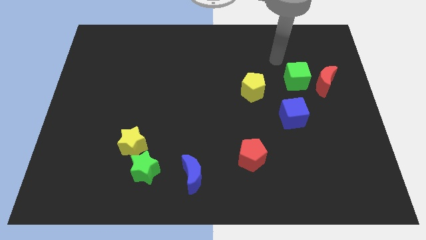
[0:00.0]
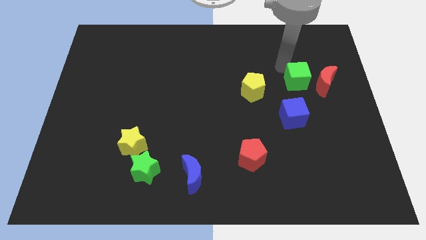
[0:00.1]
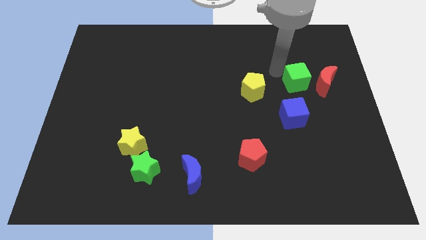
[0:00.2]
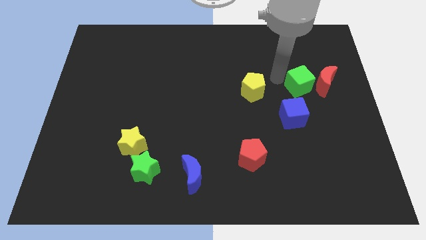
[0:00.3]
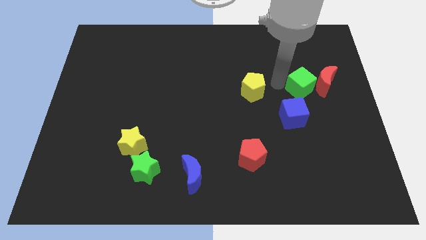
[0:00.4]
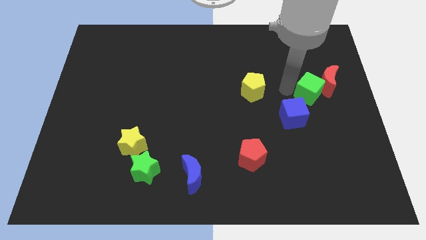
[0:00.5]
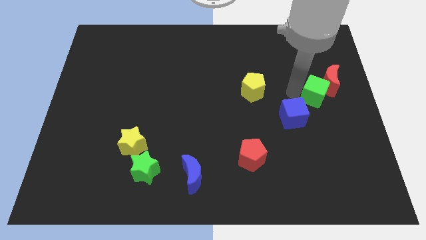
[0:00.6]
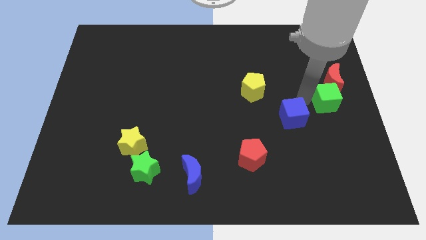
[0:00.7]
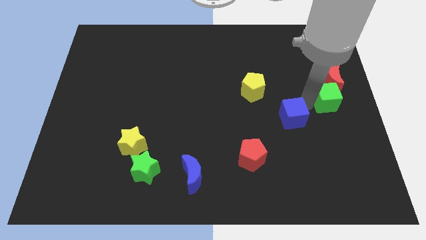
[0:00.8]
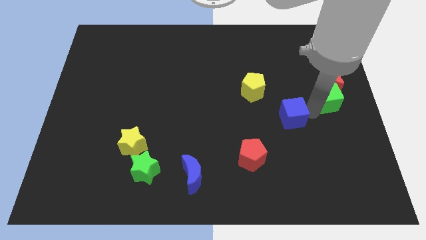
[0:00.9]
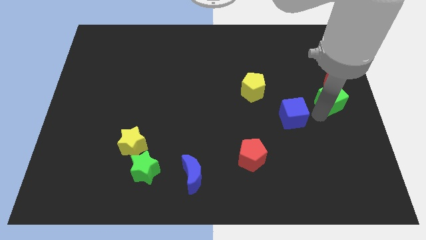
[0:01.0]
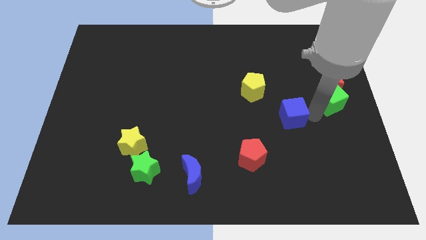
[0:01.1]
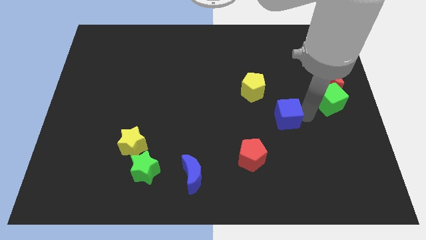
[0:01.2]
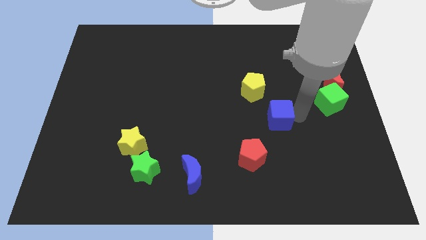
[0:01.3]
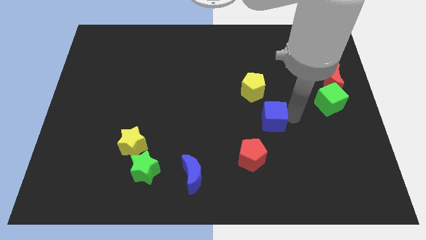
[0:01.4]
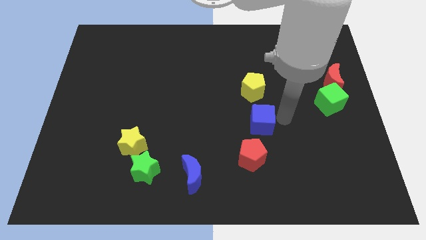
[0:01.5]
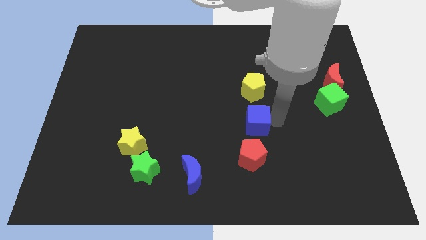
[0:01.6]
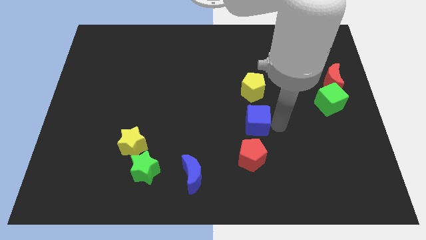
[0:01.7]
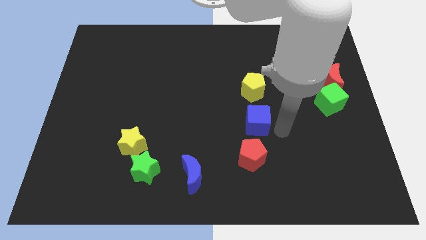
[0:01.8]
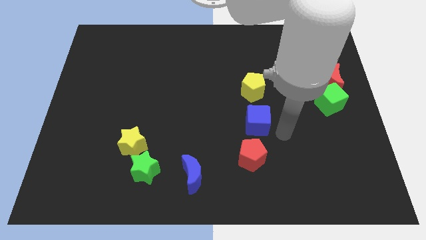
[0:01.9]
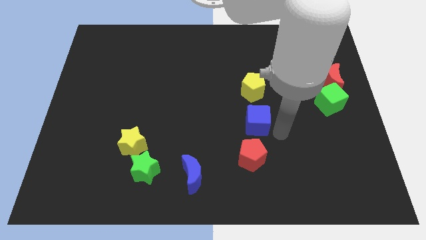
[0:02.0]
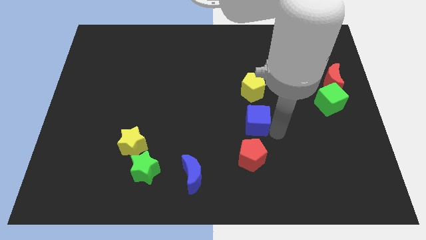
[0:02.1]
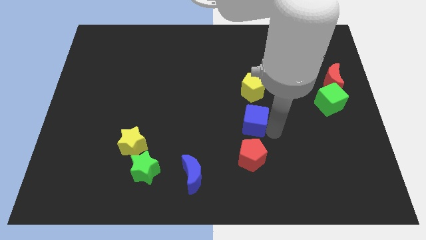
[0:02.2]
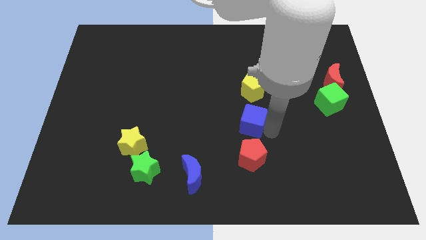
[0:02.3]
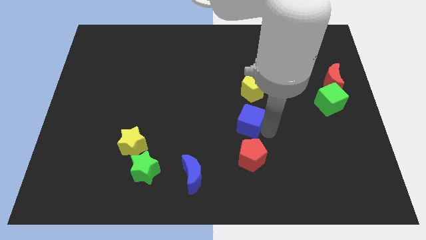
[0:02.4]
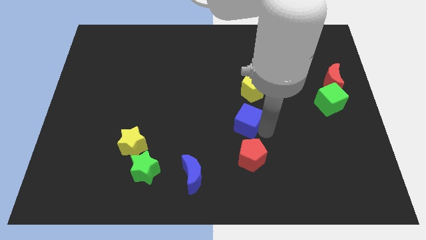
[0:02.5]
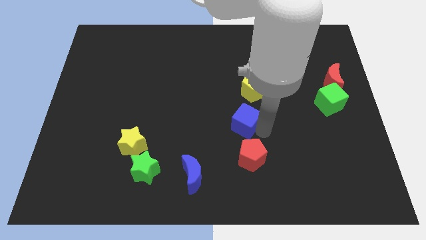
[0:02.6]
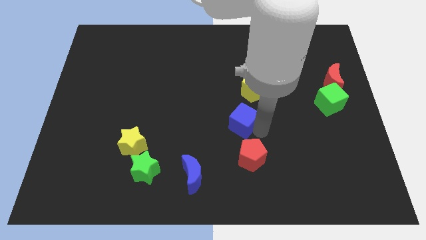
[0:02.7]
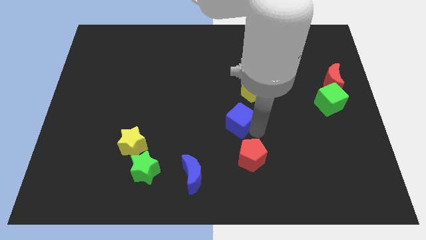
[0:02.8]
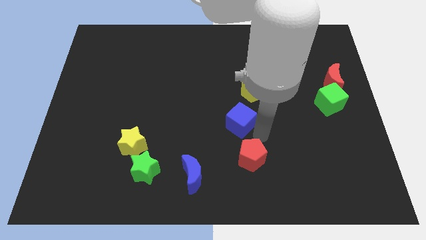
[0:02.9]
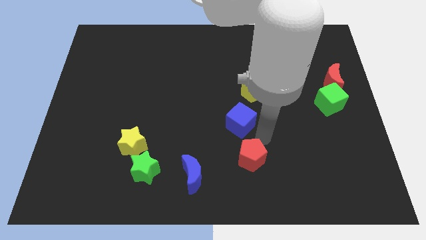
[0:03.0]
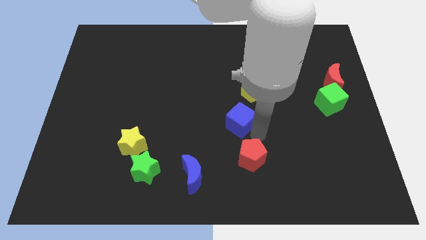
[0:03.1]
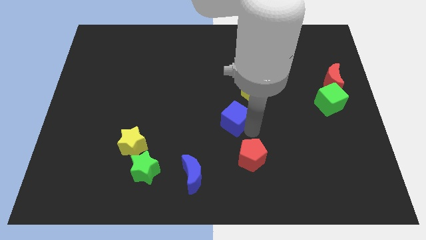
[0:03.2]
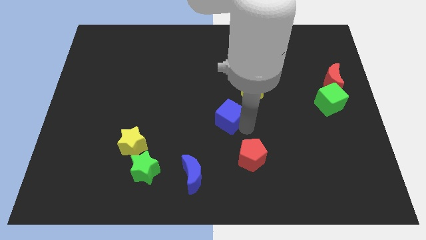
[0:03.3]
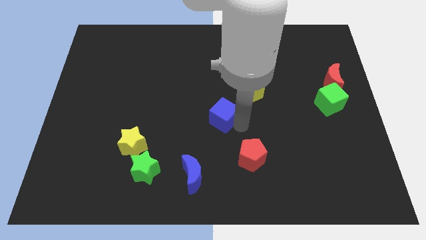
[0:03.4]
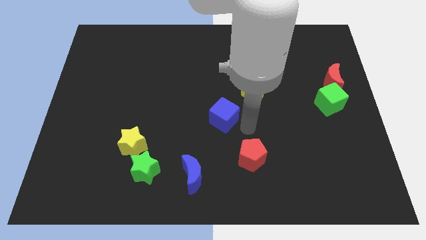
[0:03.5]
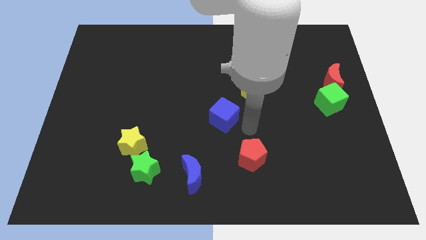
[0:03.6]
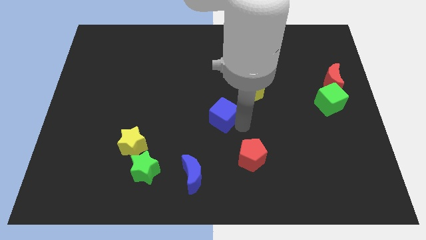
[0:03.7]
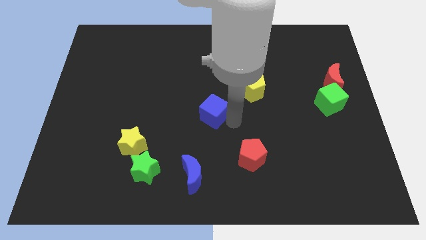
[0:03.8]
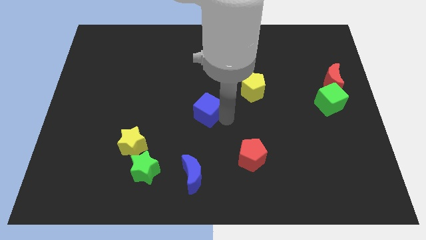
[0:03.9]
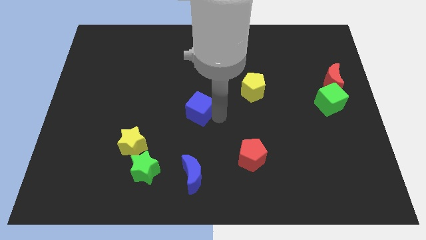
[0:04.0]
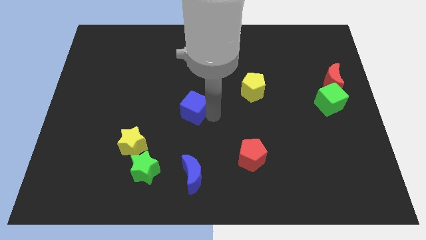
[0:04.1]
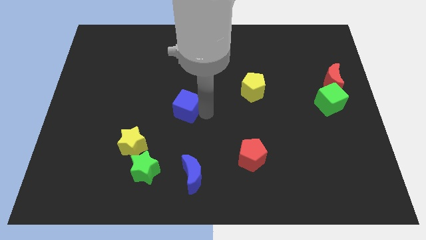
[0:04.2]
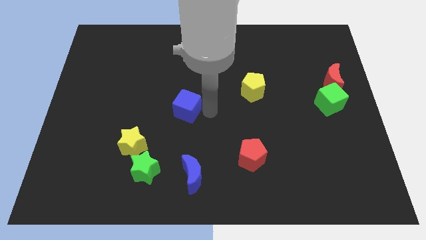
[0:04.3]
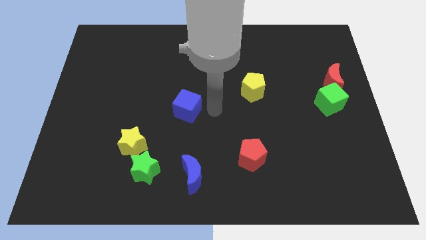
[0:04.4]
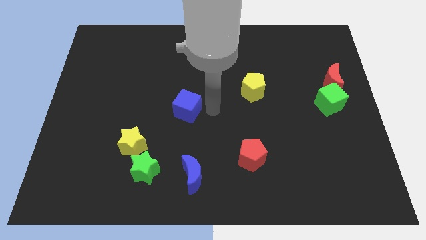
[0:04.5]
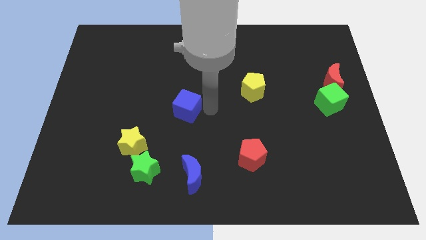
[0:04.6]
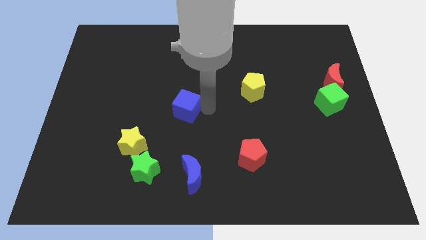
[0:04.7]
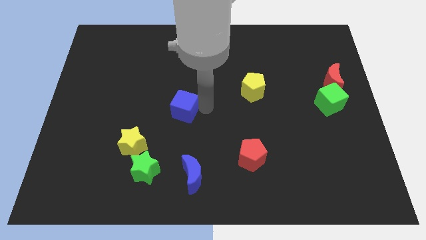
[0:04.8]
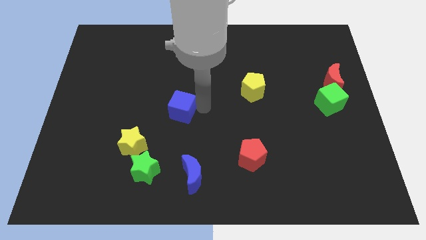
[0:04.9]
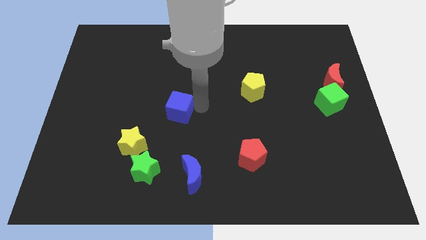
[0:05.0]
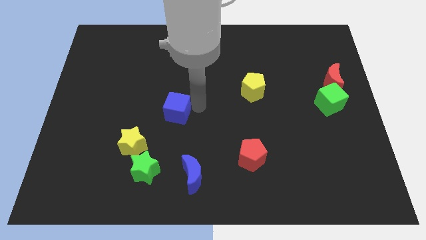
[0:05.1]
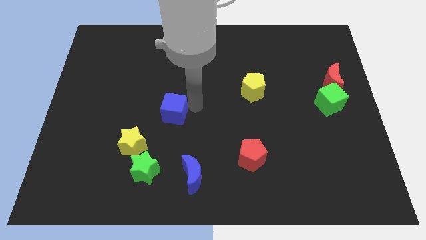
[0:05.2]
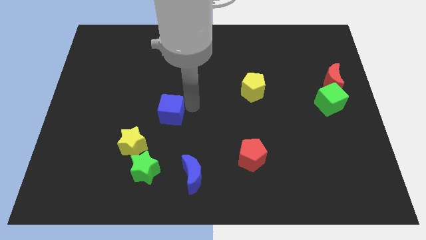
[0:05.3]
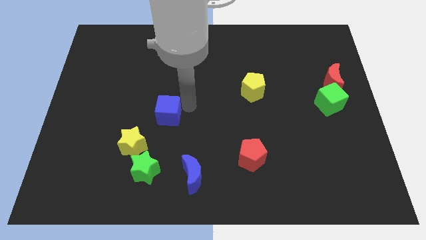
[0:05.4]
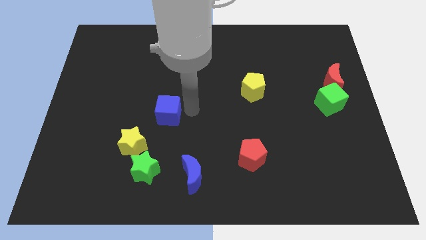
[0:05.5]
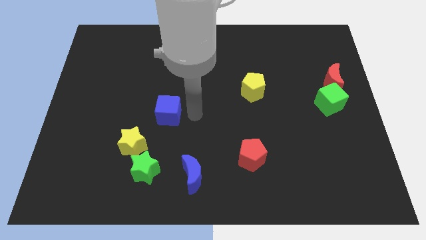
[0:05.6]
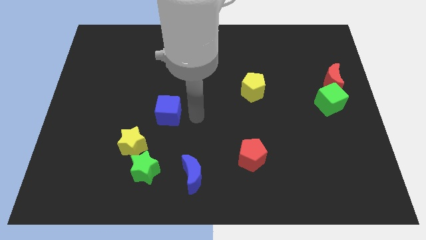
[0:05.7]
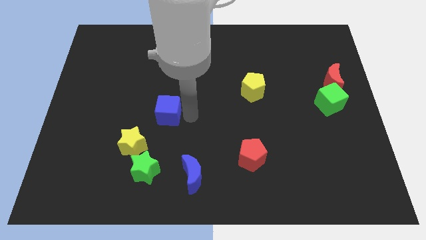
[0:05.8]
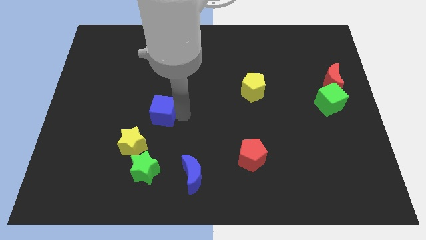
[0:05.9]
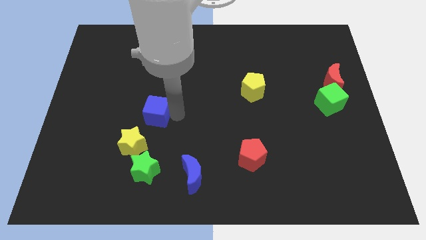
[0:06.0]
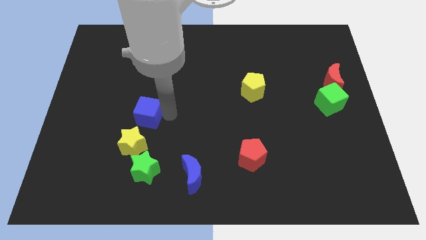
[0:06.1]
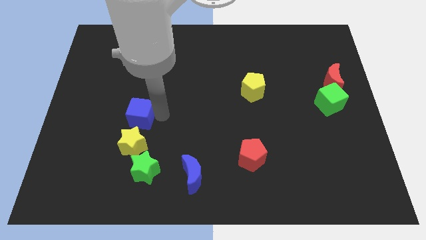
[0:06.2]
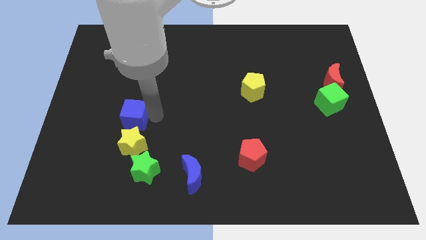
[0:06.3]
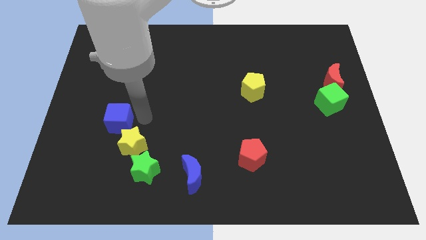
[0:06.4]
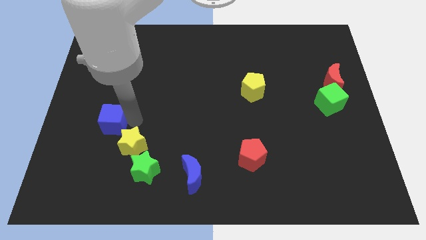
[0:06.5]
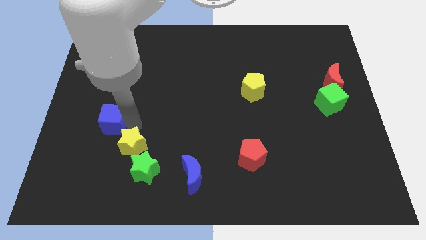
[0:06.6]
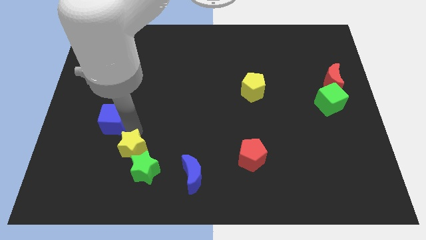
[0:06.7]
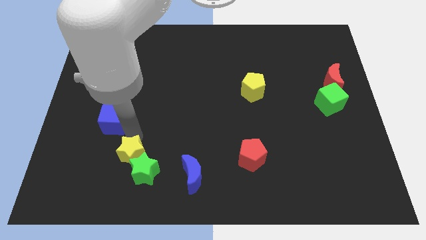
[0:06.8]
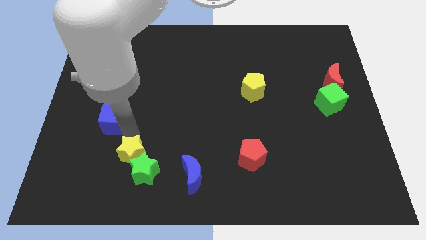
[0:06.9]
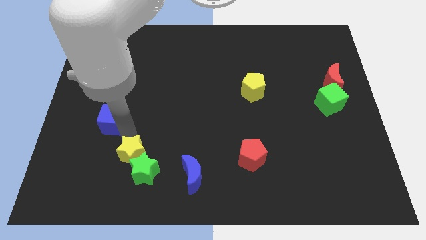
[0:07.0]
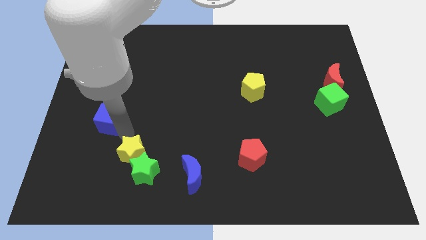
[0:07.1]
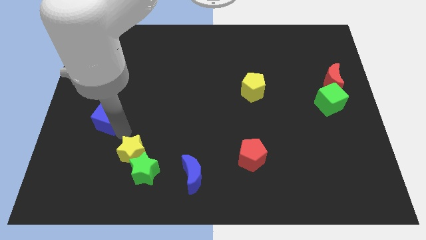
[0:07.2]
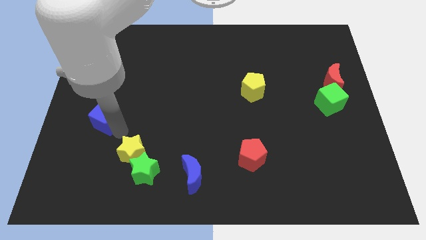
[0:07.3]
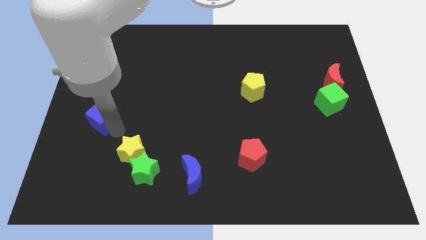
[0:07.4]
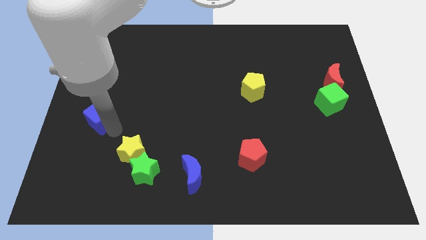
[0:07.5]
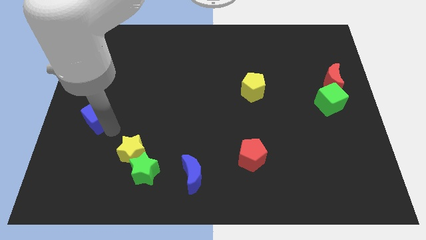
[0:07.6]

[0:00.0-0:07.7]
move the blue cube to the center left
